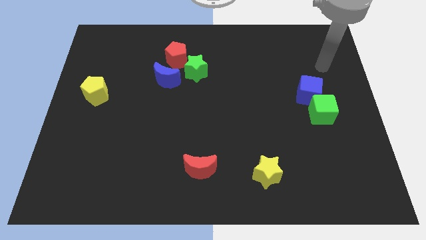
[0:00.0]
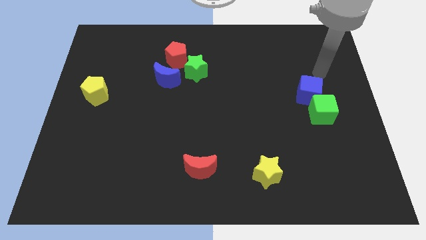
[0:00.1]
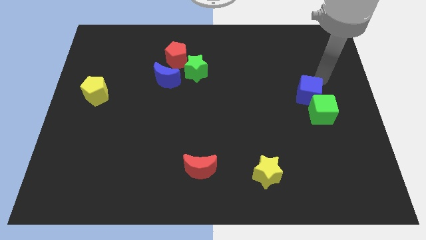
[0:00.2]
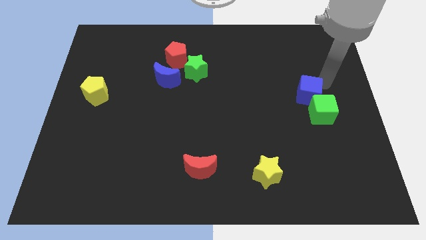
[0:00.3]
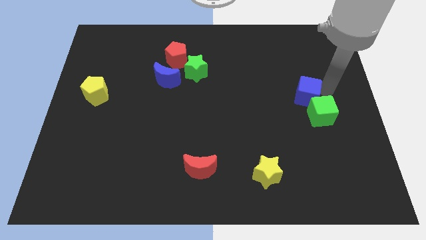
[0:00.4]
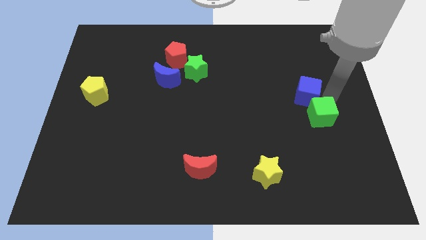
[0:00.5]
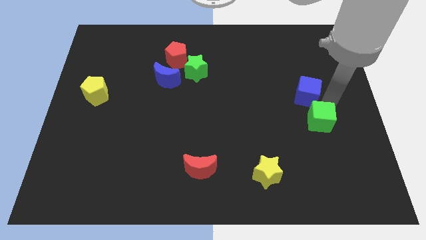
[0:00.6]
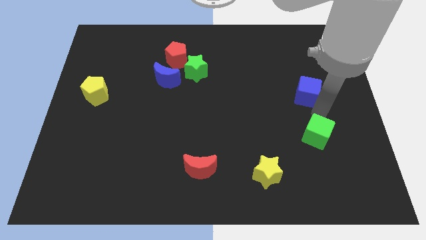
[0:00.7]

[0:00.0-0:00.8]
move the blue cube away from the green cube

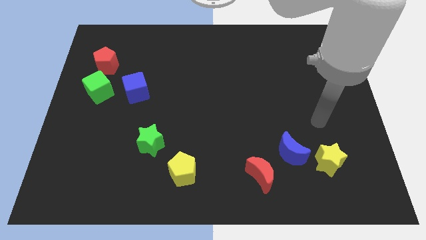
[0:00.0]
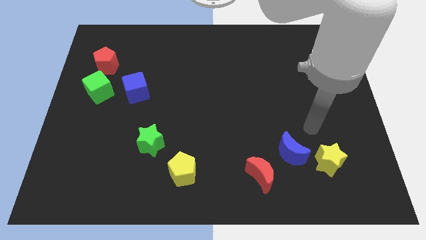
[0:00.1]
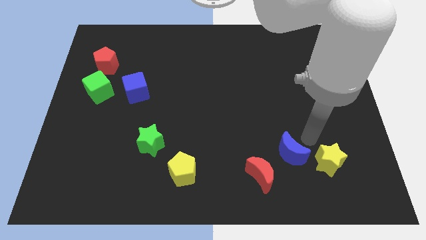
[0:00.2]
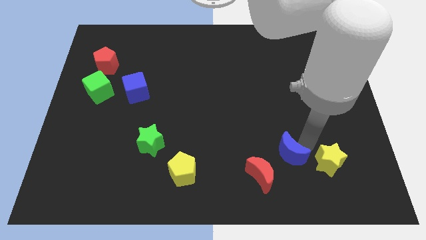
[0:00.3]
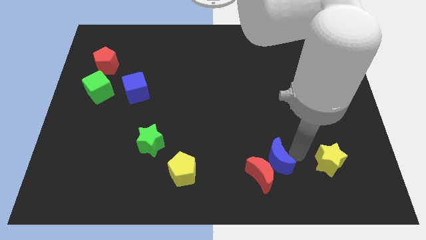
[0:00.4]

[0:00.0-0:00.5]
separate the yellow star from the blue moon

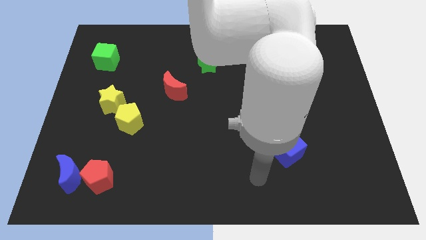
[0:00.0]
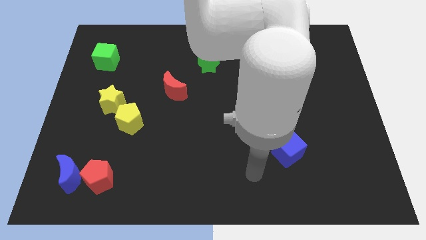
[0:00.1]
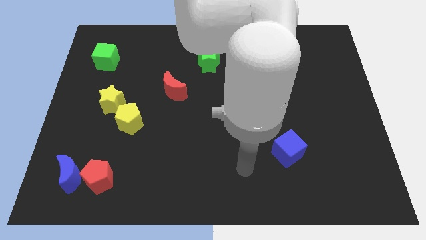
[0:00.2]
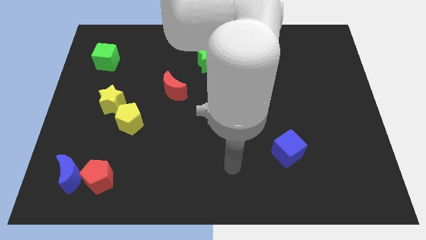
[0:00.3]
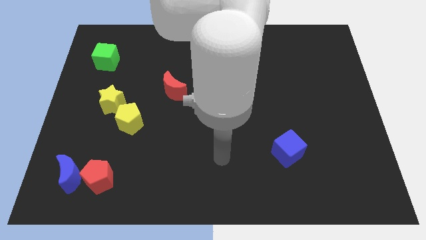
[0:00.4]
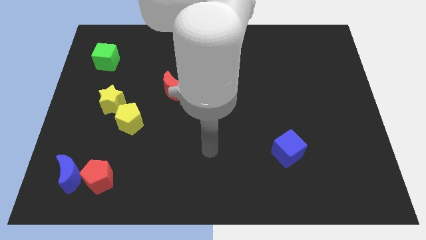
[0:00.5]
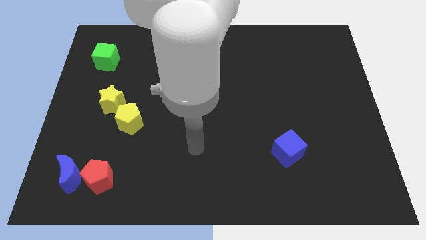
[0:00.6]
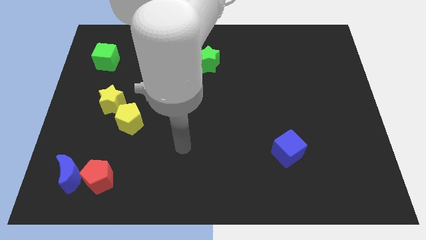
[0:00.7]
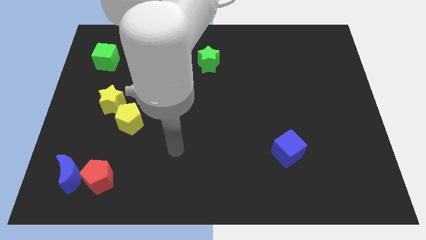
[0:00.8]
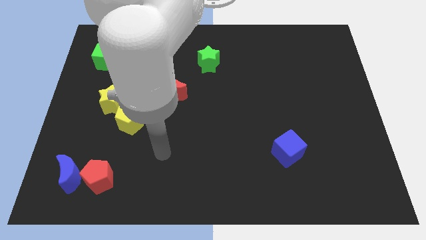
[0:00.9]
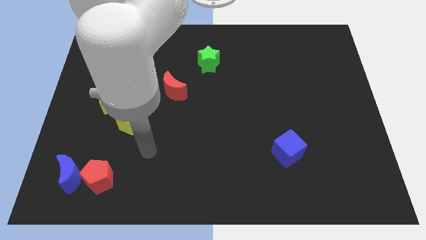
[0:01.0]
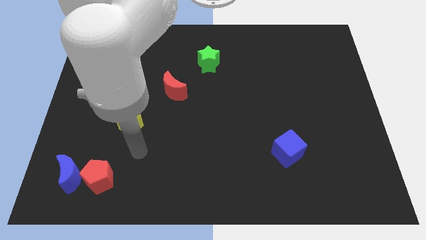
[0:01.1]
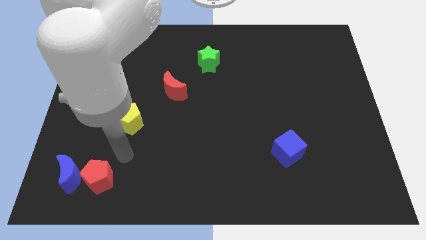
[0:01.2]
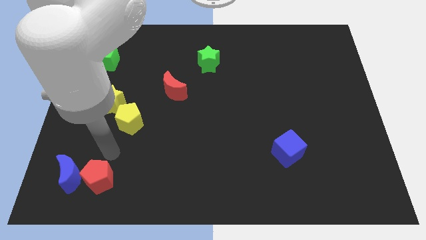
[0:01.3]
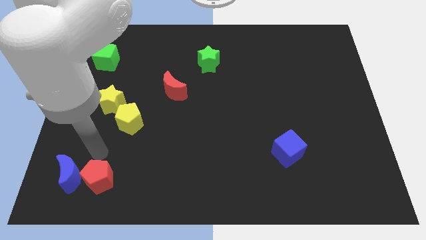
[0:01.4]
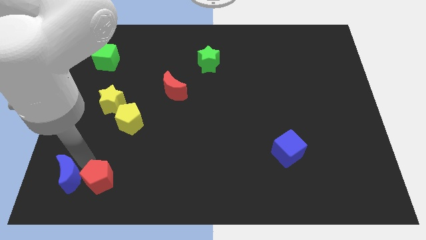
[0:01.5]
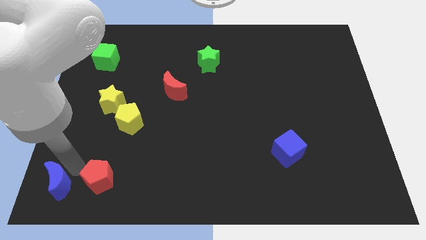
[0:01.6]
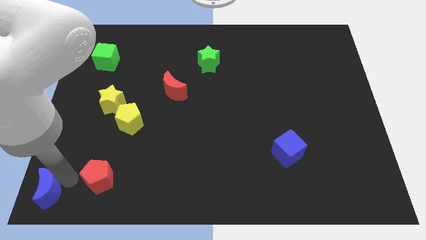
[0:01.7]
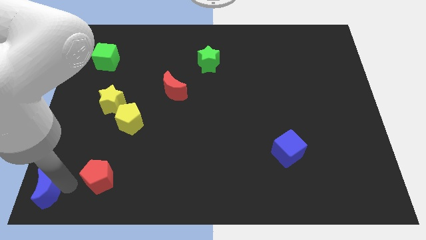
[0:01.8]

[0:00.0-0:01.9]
separate the red pentagon from the blue moon

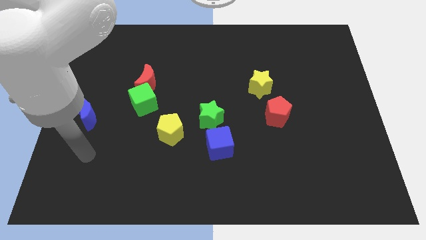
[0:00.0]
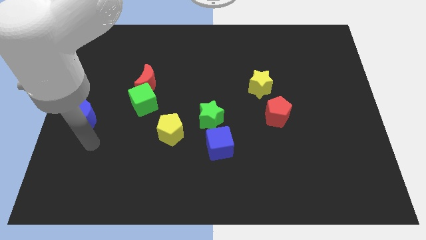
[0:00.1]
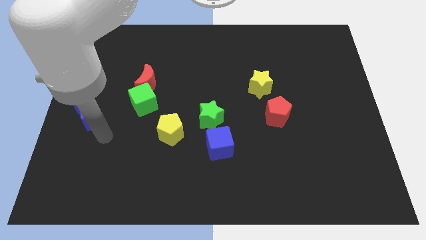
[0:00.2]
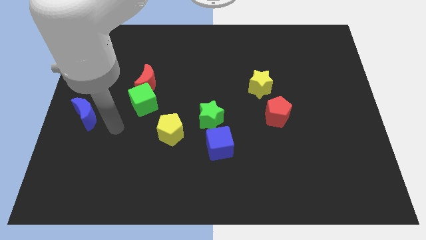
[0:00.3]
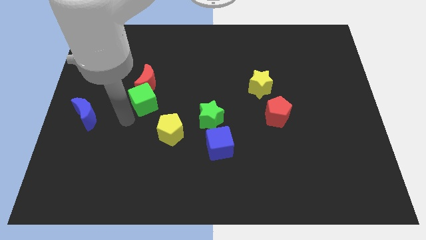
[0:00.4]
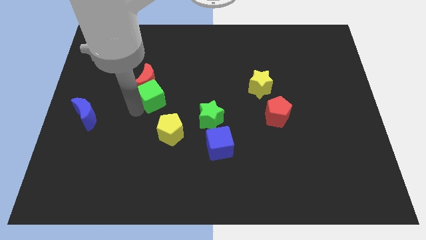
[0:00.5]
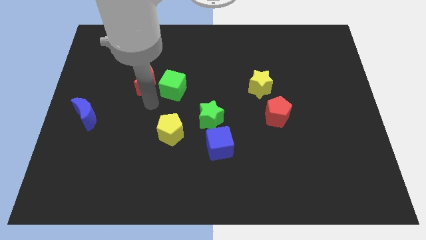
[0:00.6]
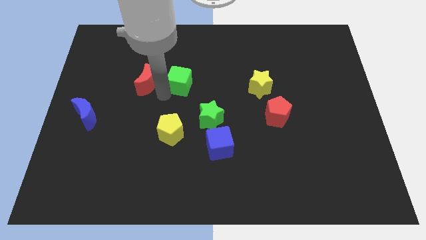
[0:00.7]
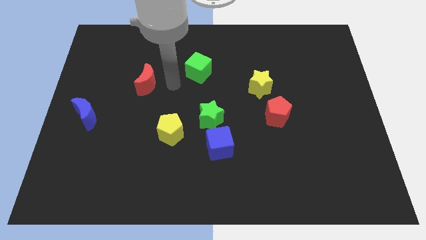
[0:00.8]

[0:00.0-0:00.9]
pull the red moon apart from the green cube

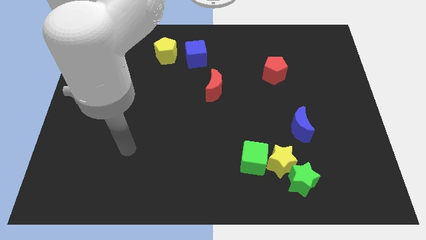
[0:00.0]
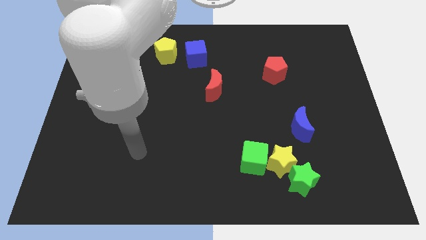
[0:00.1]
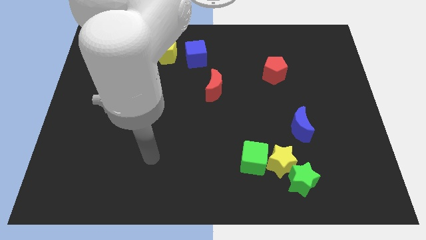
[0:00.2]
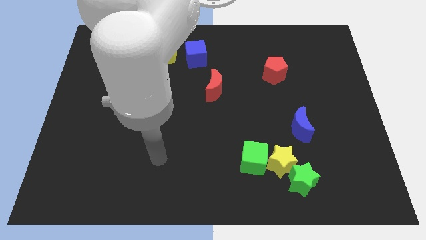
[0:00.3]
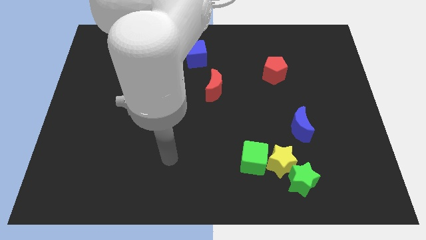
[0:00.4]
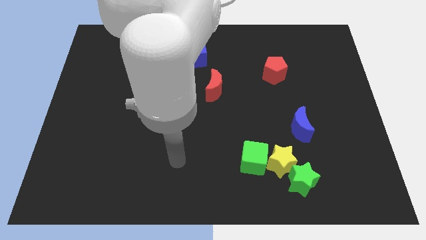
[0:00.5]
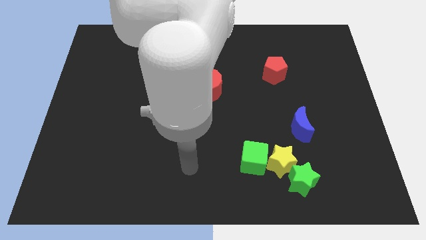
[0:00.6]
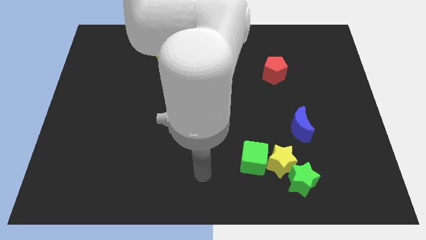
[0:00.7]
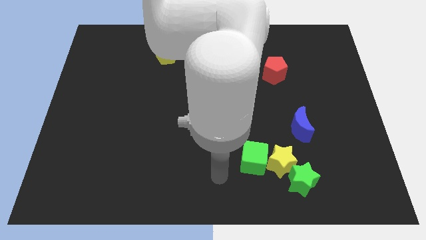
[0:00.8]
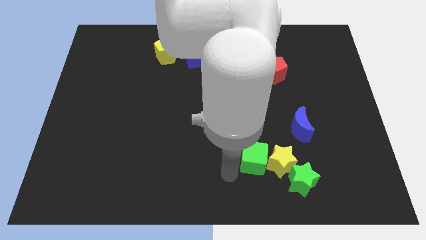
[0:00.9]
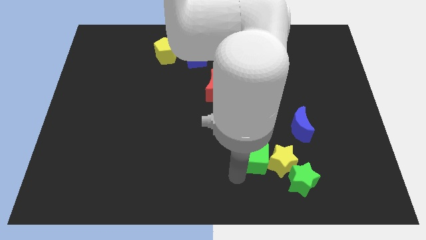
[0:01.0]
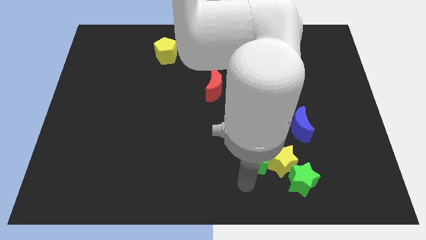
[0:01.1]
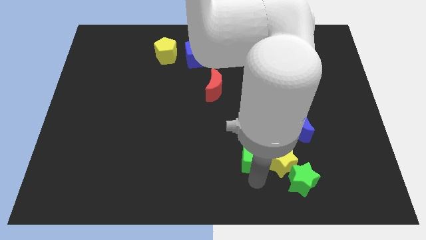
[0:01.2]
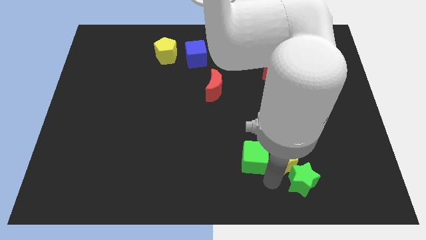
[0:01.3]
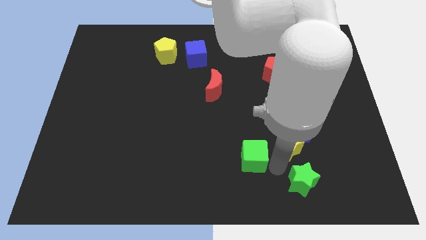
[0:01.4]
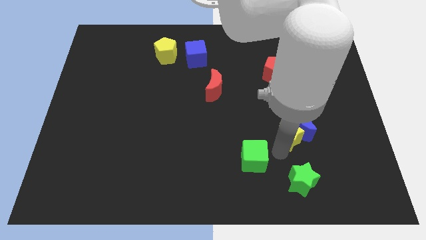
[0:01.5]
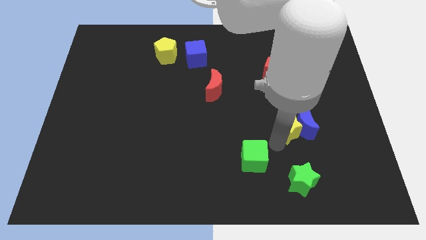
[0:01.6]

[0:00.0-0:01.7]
move the green cube away from the yellow star

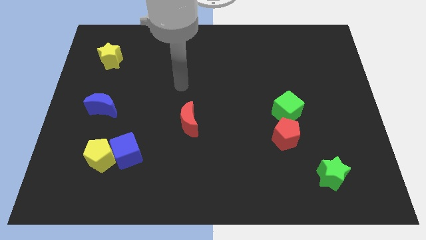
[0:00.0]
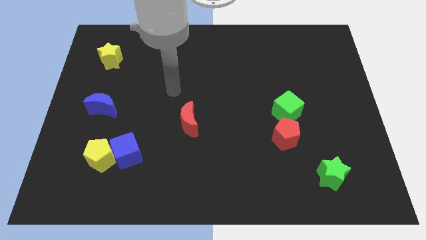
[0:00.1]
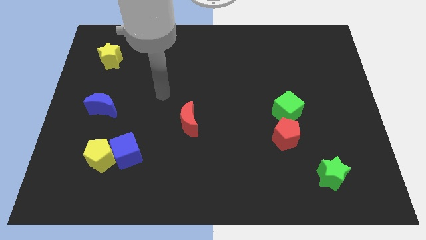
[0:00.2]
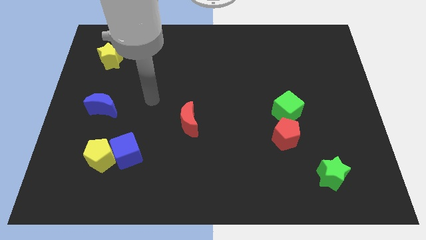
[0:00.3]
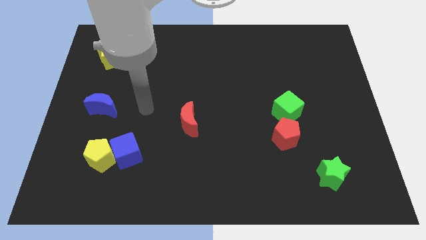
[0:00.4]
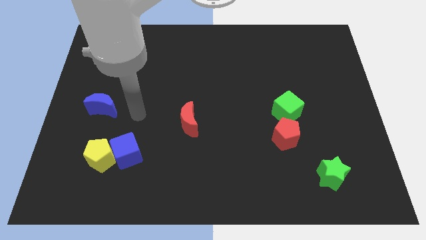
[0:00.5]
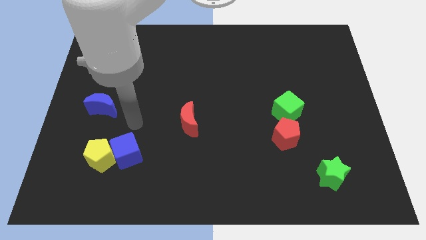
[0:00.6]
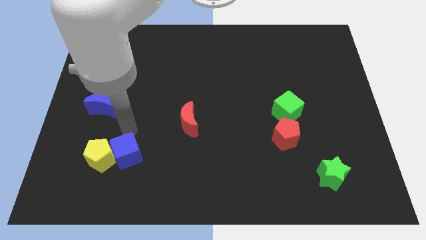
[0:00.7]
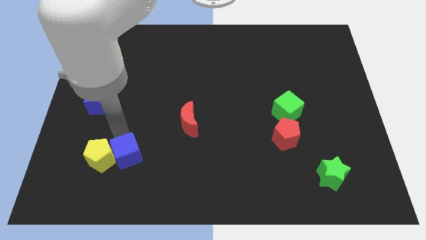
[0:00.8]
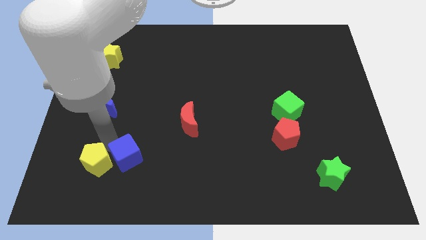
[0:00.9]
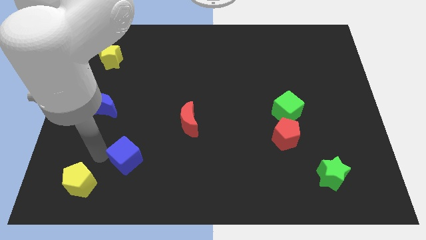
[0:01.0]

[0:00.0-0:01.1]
pull the blue cube apart from the yellow pentagon

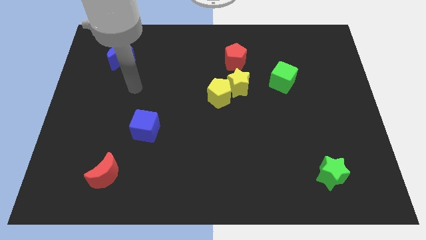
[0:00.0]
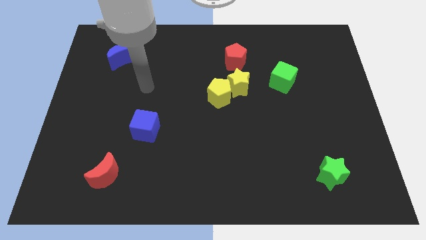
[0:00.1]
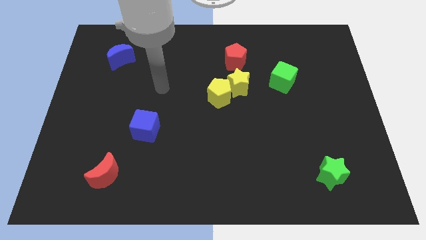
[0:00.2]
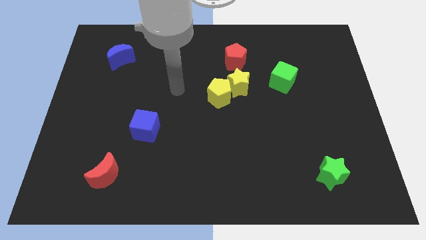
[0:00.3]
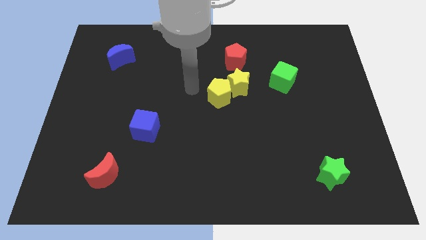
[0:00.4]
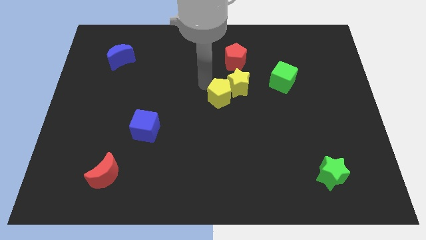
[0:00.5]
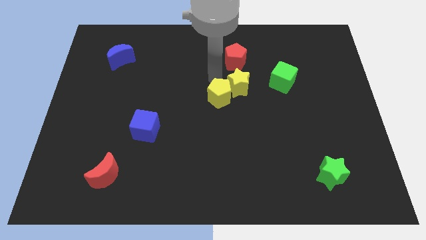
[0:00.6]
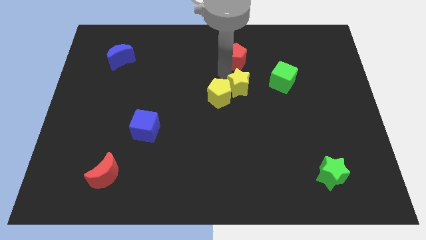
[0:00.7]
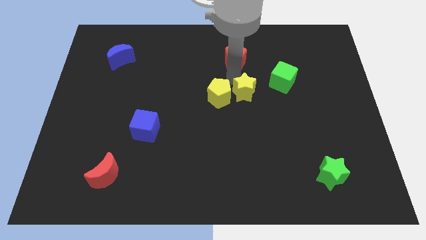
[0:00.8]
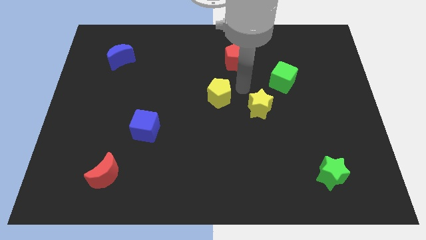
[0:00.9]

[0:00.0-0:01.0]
move the yellow pentagon away from the yellow star

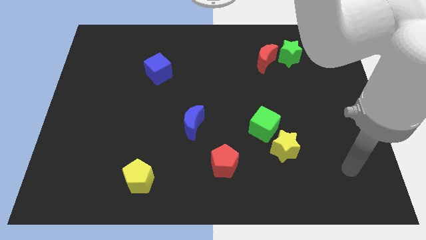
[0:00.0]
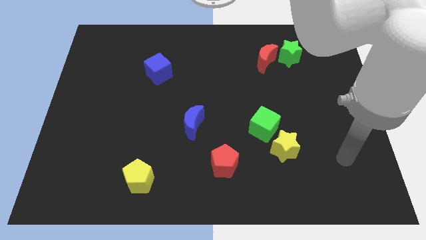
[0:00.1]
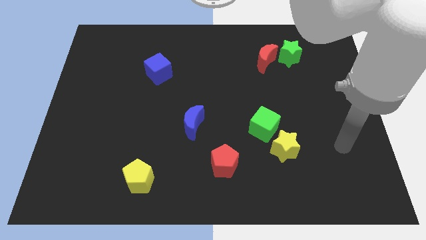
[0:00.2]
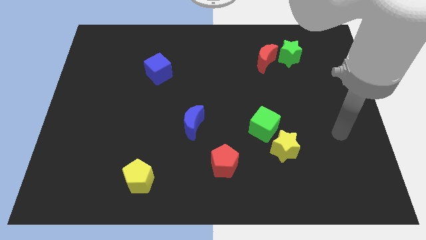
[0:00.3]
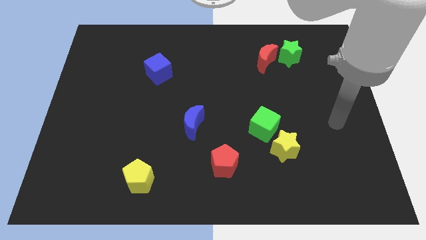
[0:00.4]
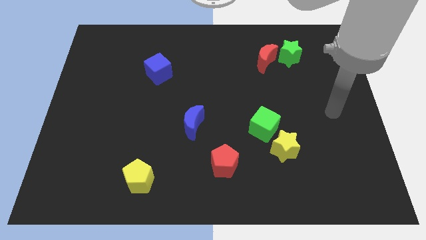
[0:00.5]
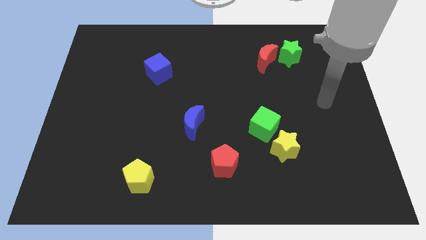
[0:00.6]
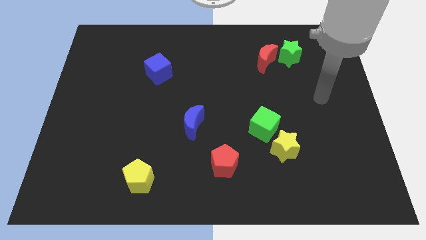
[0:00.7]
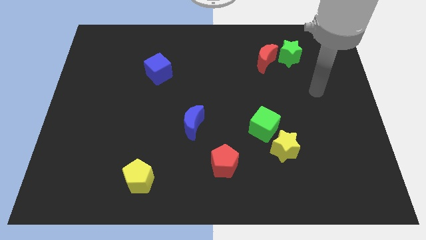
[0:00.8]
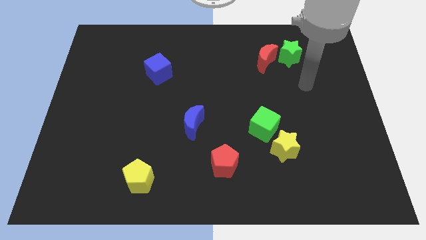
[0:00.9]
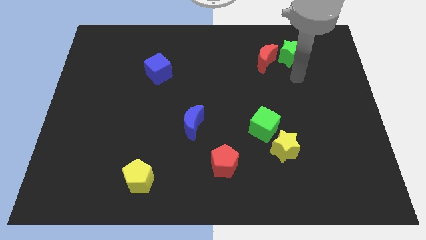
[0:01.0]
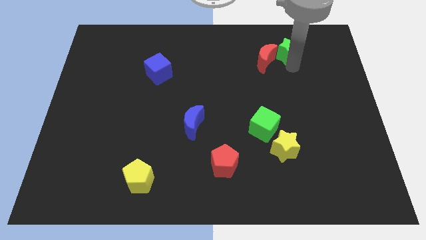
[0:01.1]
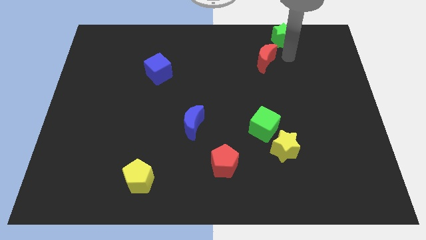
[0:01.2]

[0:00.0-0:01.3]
pull the red moon apart from the green star
